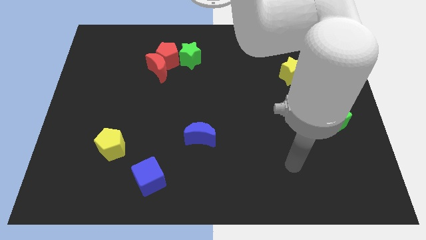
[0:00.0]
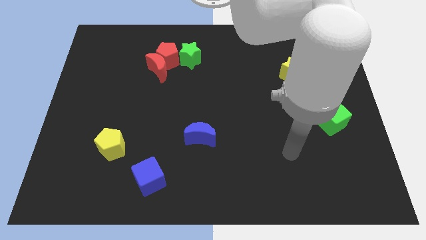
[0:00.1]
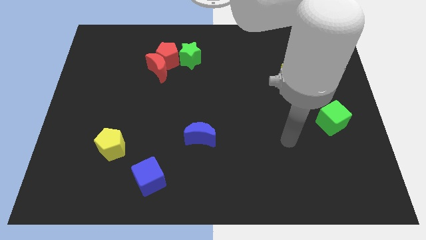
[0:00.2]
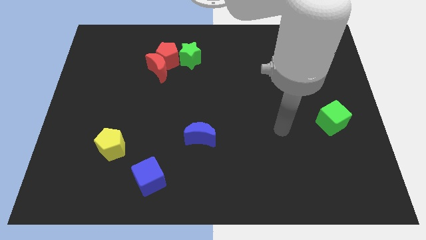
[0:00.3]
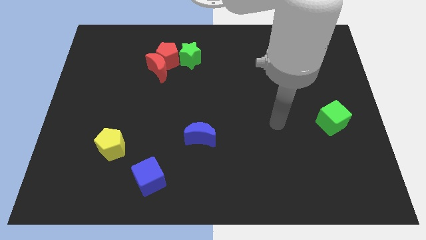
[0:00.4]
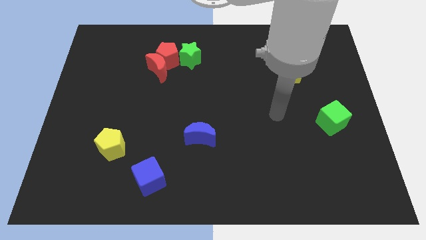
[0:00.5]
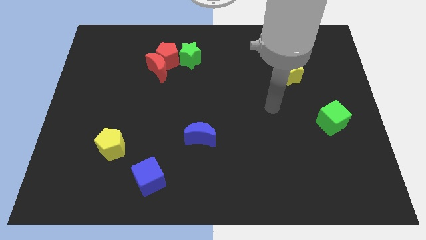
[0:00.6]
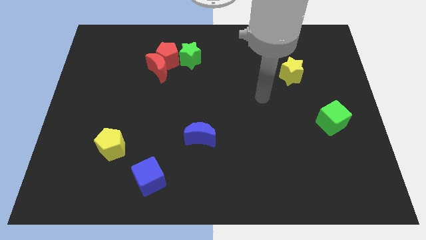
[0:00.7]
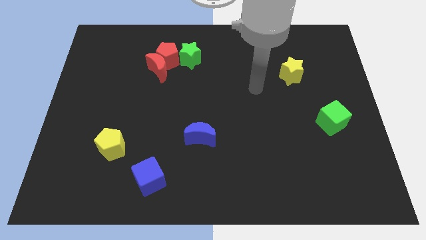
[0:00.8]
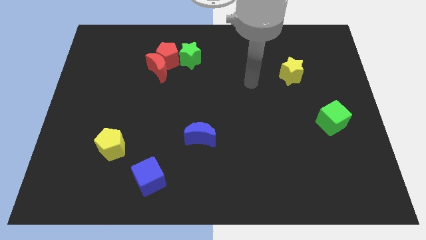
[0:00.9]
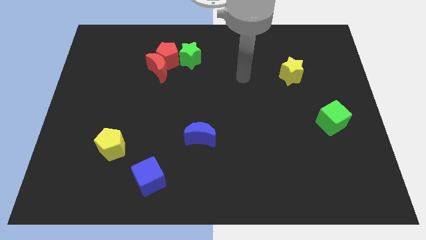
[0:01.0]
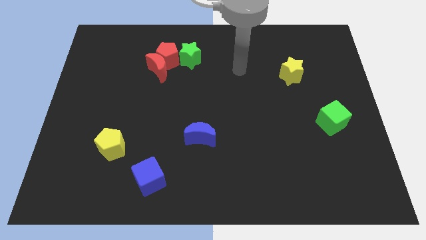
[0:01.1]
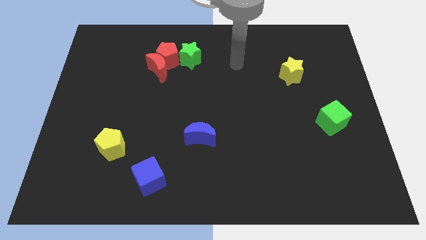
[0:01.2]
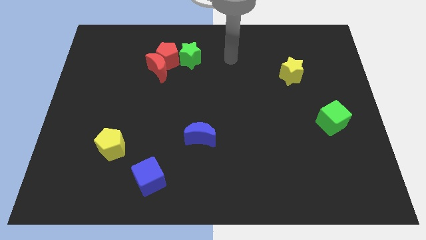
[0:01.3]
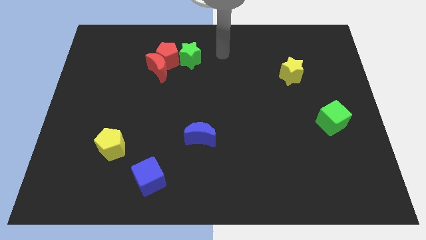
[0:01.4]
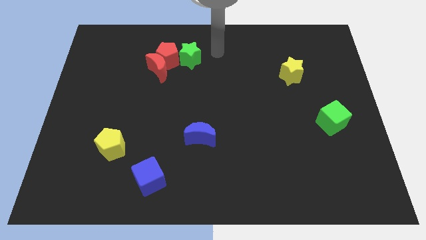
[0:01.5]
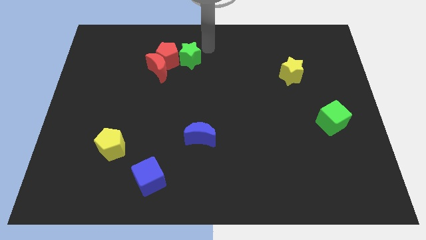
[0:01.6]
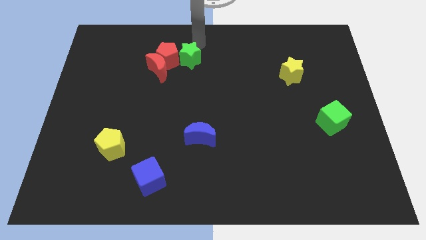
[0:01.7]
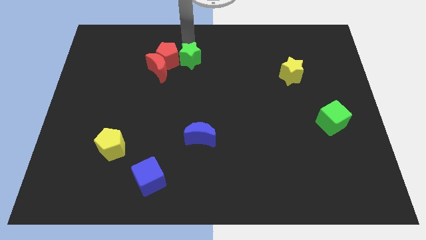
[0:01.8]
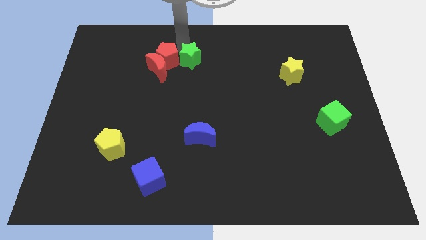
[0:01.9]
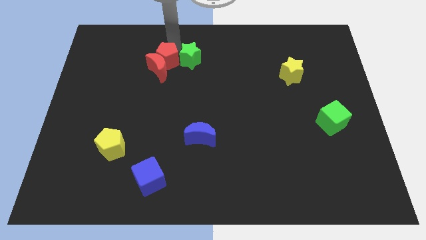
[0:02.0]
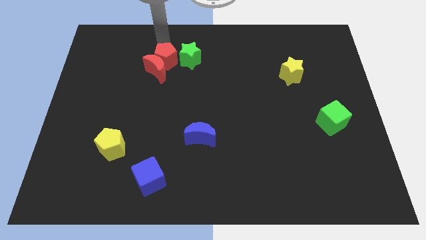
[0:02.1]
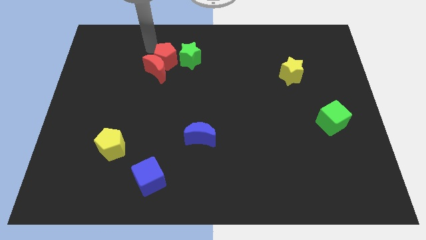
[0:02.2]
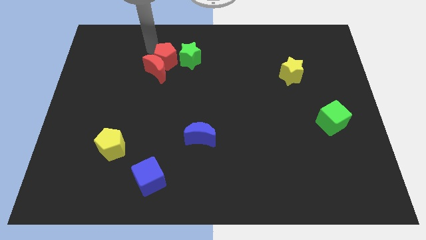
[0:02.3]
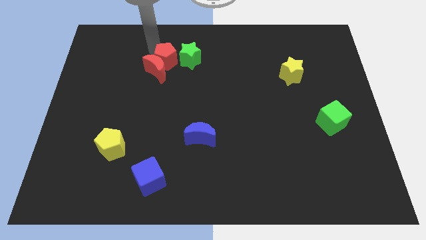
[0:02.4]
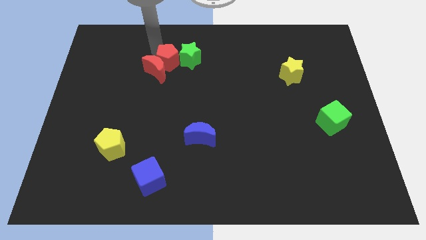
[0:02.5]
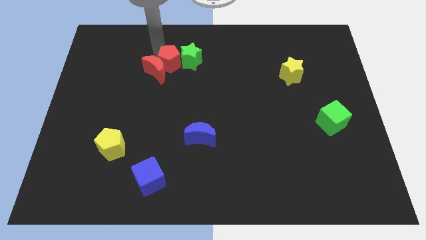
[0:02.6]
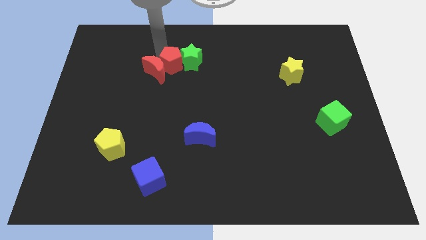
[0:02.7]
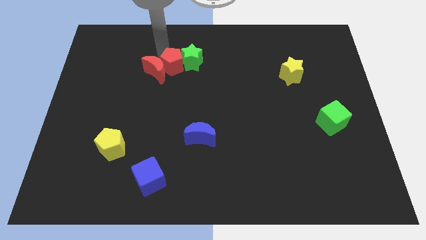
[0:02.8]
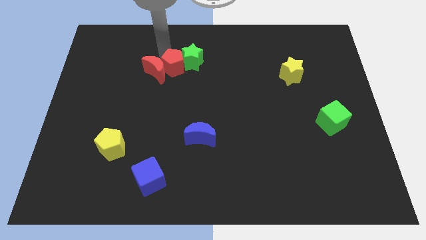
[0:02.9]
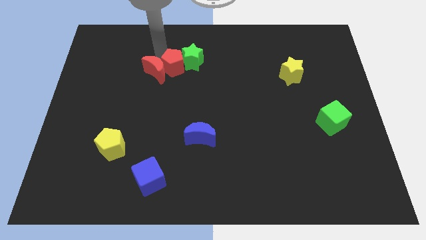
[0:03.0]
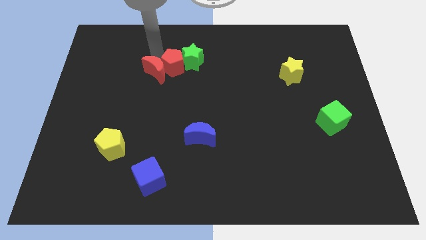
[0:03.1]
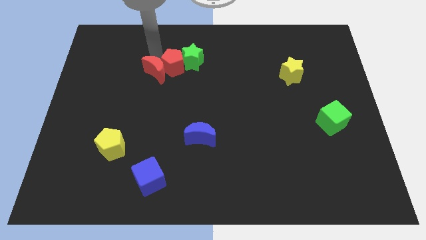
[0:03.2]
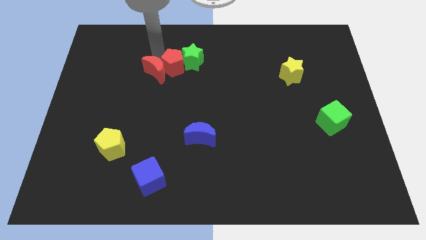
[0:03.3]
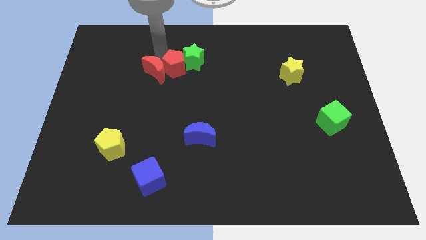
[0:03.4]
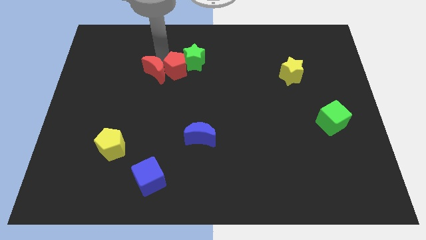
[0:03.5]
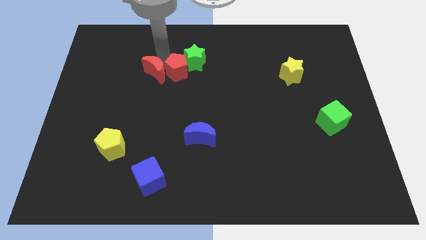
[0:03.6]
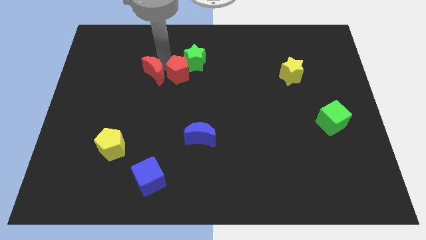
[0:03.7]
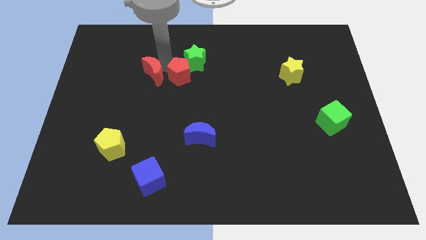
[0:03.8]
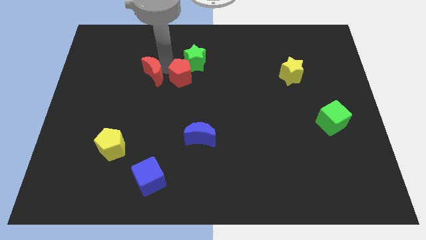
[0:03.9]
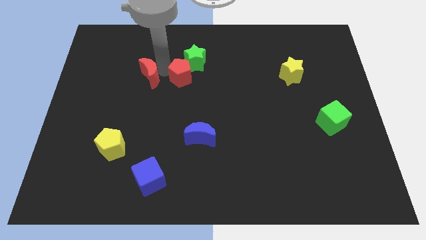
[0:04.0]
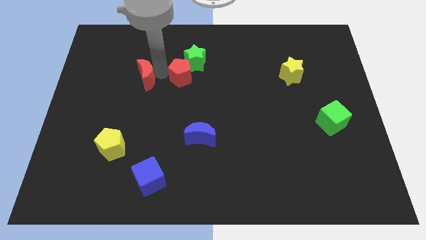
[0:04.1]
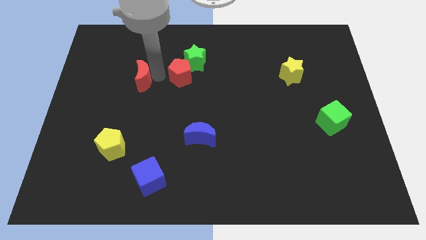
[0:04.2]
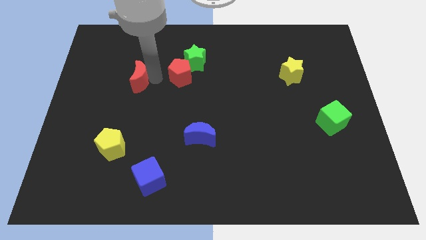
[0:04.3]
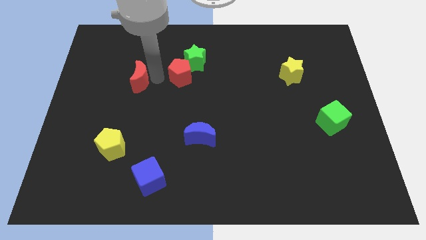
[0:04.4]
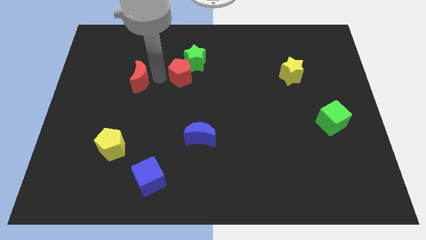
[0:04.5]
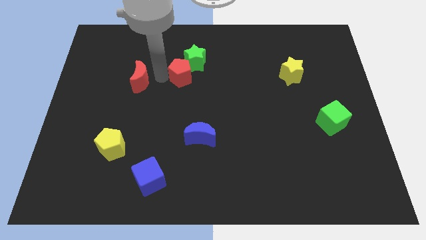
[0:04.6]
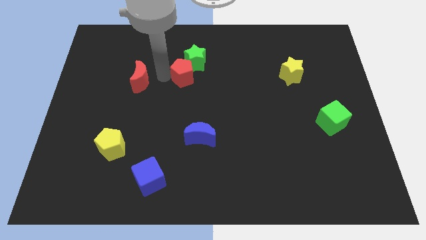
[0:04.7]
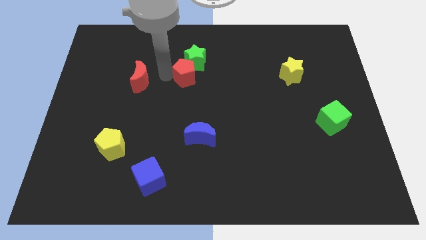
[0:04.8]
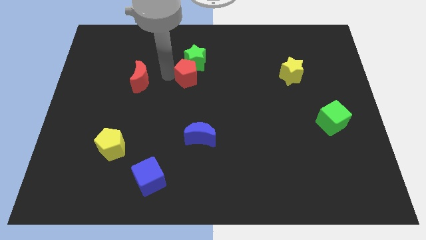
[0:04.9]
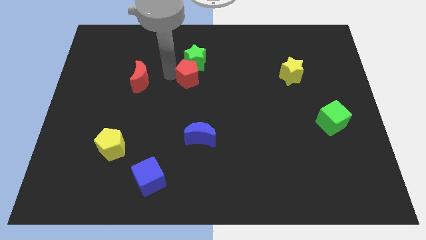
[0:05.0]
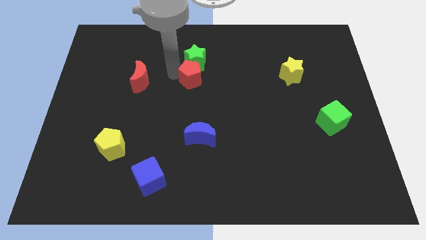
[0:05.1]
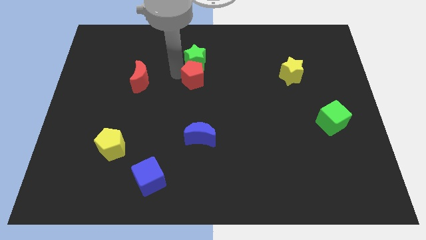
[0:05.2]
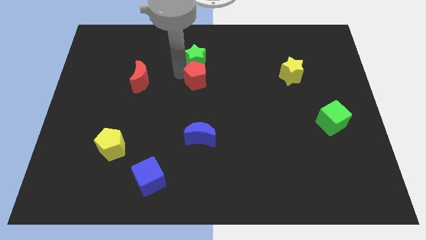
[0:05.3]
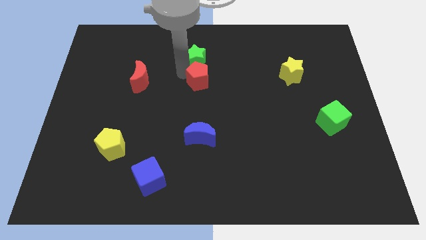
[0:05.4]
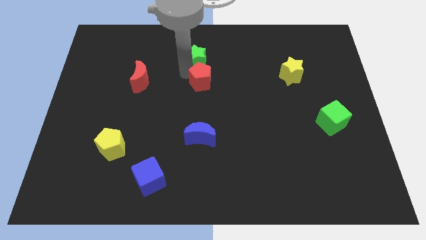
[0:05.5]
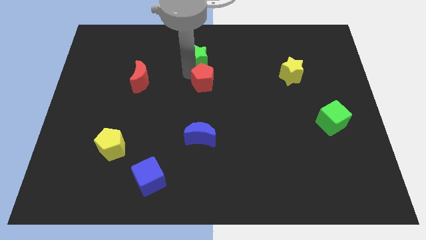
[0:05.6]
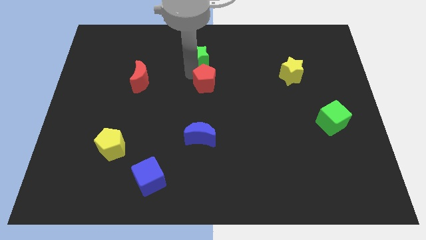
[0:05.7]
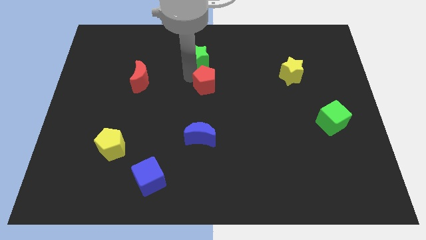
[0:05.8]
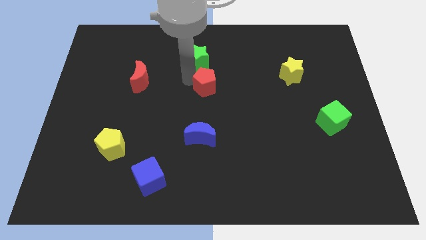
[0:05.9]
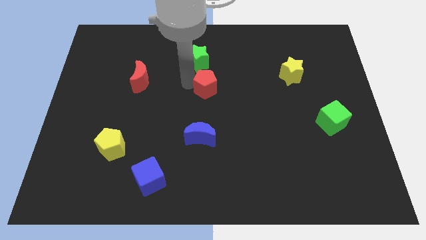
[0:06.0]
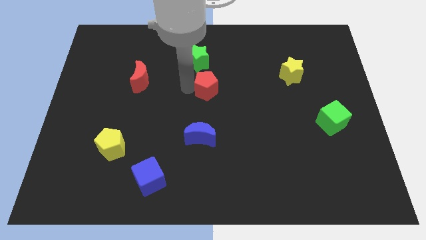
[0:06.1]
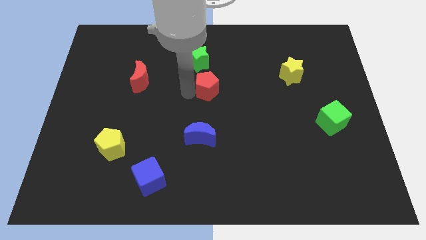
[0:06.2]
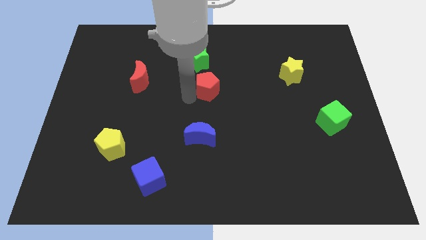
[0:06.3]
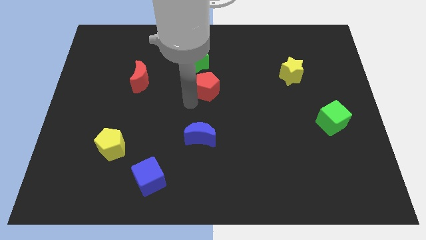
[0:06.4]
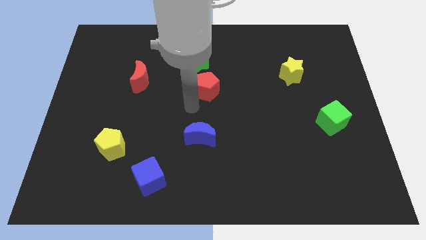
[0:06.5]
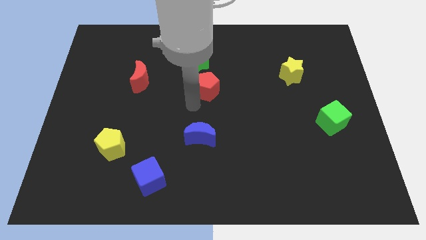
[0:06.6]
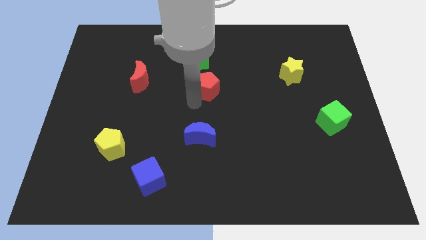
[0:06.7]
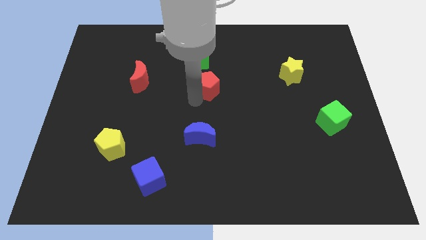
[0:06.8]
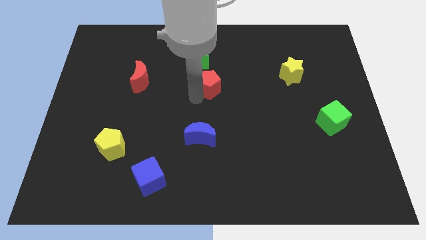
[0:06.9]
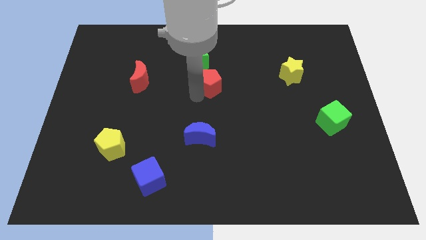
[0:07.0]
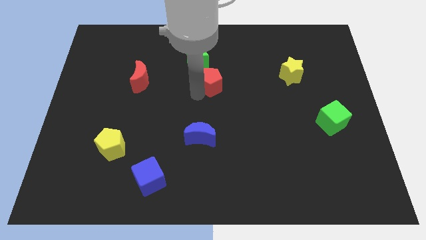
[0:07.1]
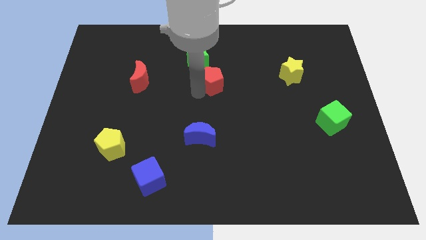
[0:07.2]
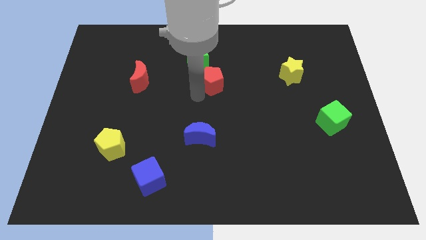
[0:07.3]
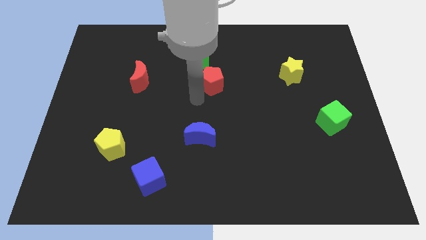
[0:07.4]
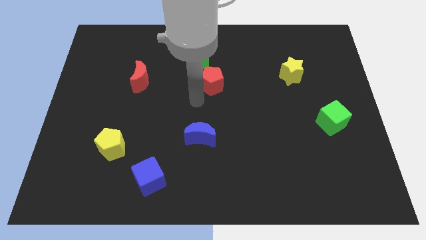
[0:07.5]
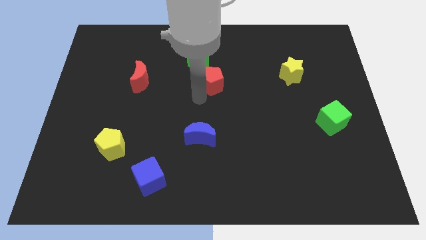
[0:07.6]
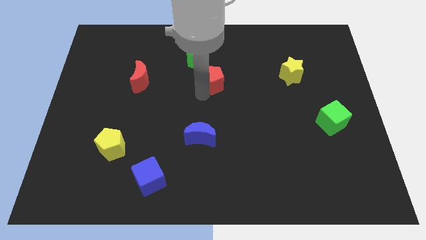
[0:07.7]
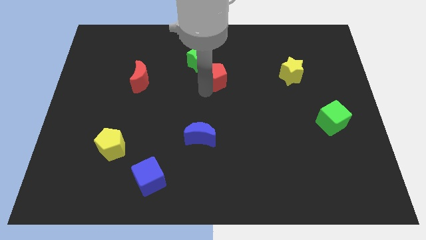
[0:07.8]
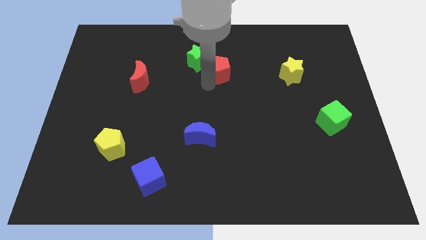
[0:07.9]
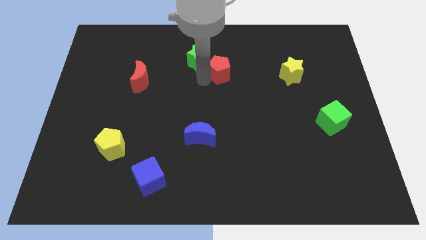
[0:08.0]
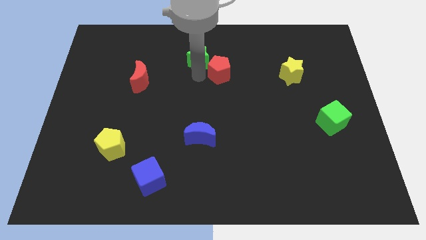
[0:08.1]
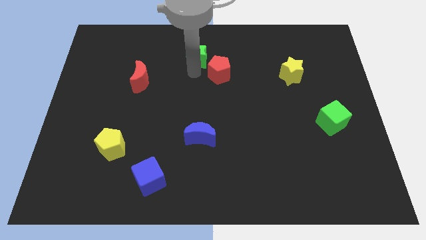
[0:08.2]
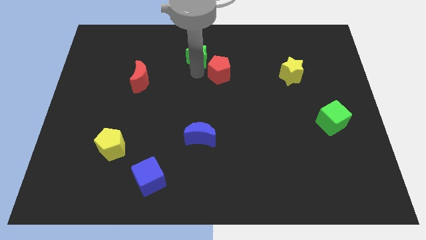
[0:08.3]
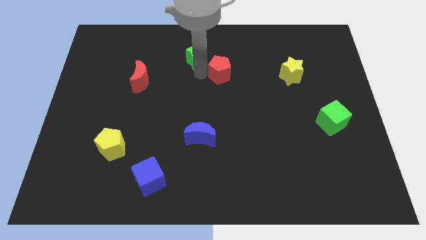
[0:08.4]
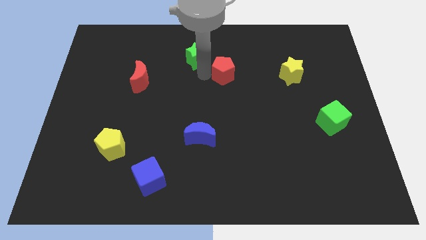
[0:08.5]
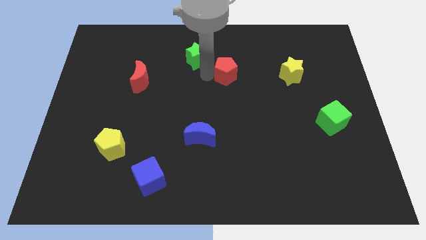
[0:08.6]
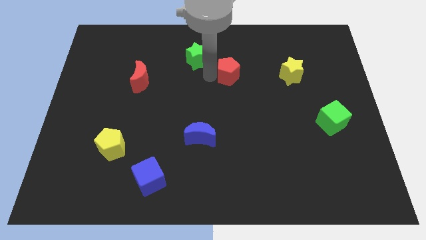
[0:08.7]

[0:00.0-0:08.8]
move the red pentagon to the left of the yellow star
